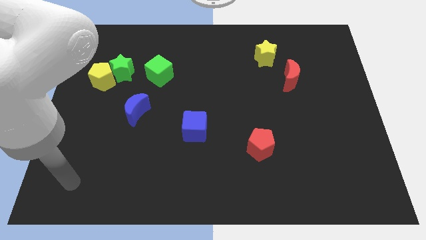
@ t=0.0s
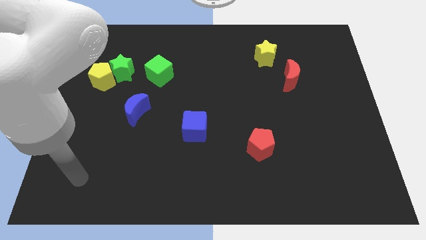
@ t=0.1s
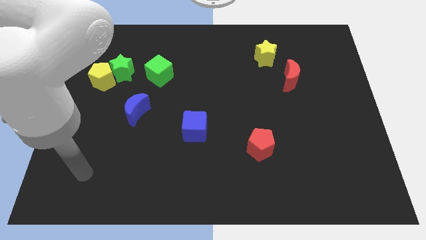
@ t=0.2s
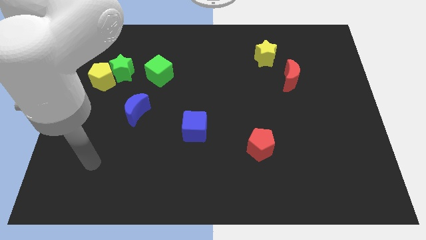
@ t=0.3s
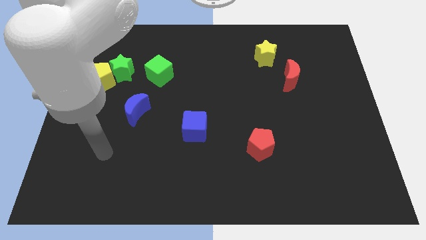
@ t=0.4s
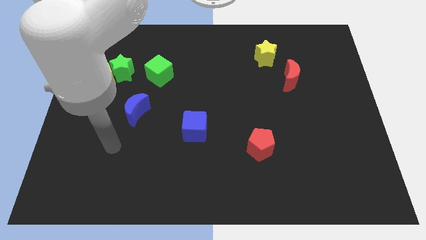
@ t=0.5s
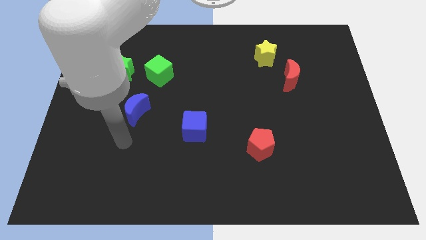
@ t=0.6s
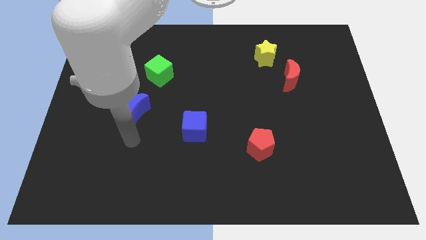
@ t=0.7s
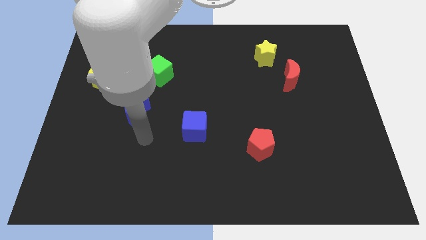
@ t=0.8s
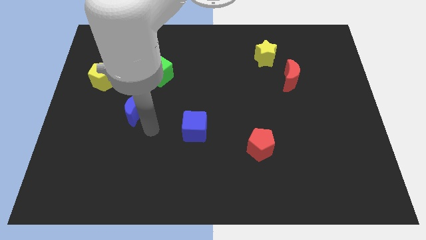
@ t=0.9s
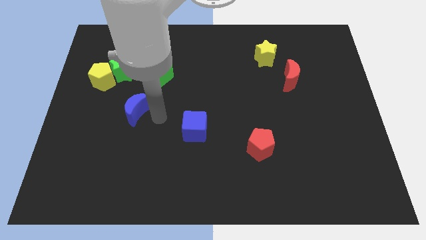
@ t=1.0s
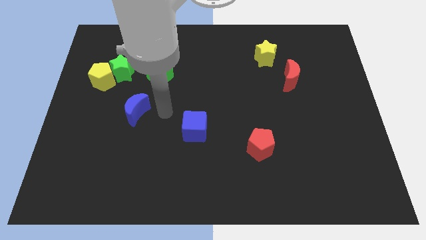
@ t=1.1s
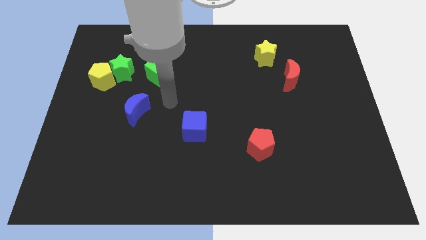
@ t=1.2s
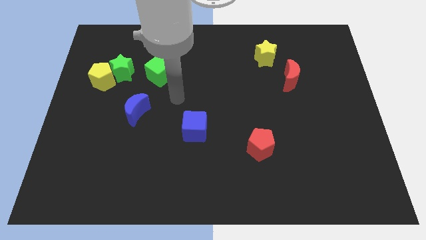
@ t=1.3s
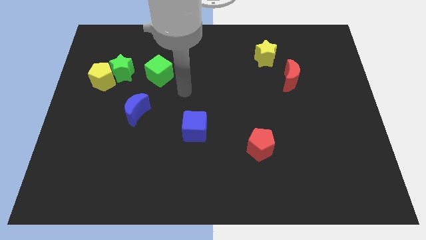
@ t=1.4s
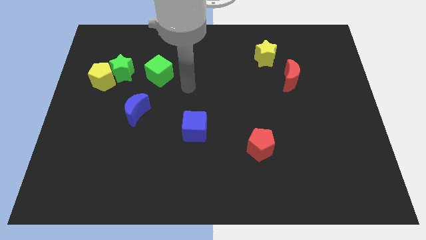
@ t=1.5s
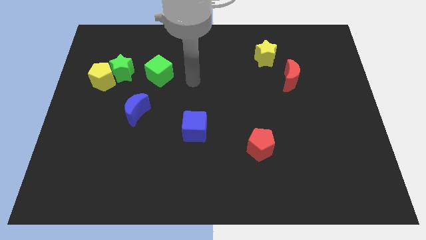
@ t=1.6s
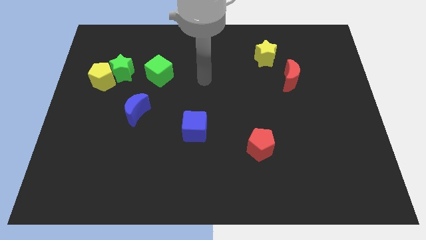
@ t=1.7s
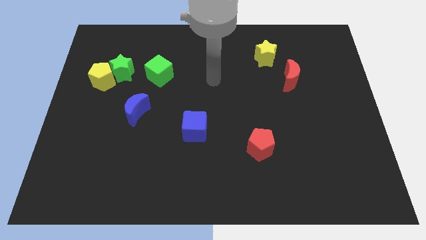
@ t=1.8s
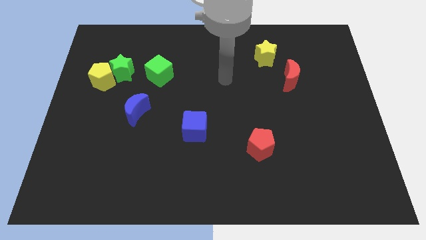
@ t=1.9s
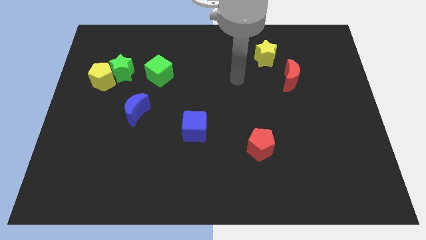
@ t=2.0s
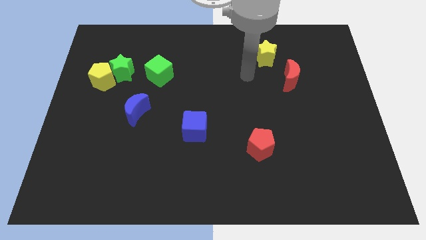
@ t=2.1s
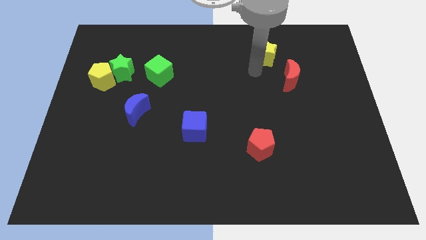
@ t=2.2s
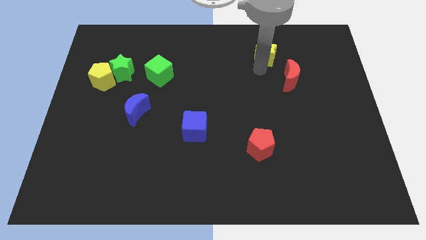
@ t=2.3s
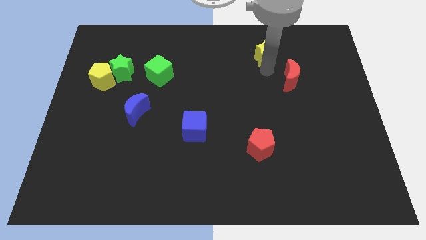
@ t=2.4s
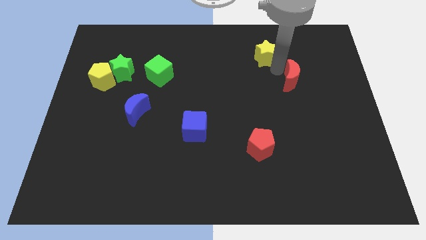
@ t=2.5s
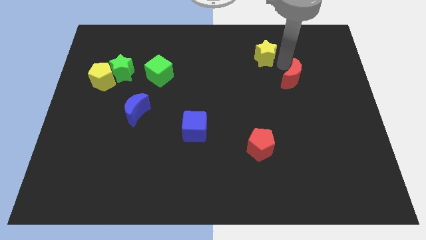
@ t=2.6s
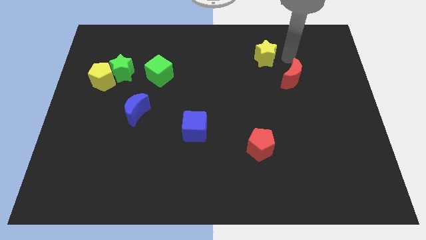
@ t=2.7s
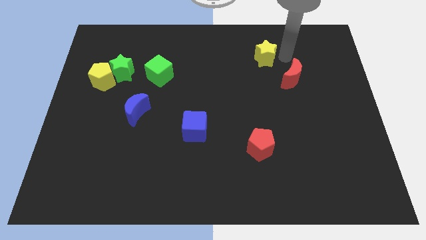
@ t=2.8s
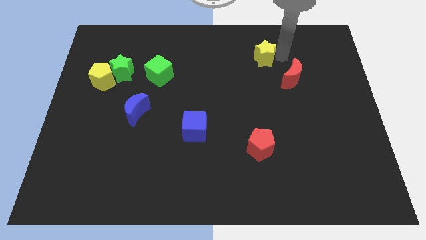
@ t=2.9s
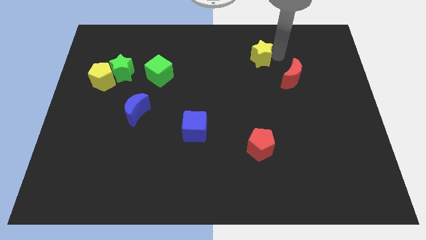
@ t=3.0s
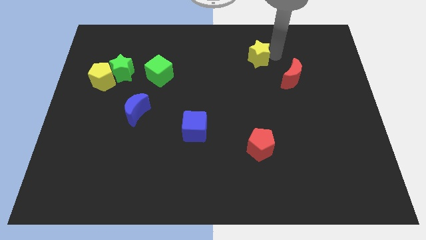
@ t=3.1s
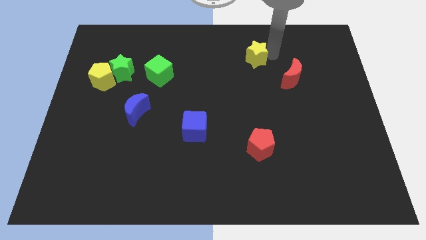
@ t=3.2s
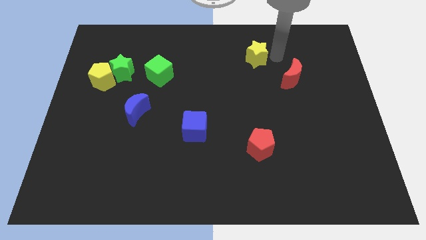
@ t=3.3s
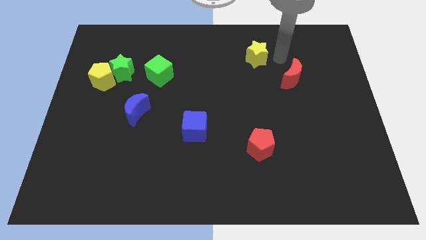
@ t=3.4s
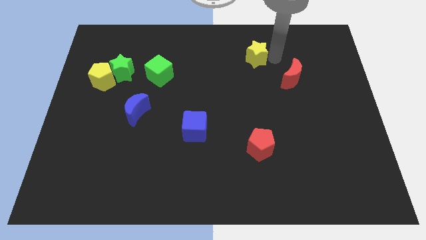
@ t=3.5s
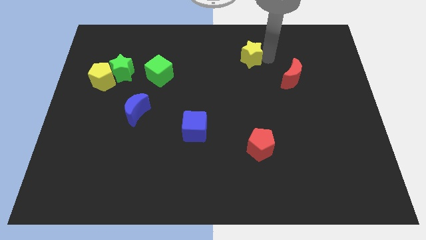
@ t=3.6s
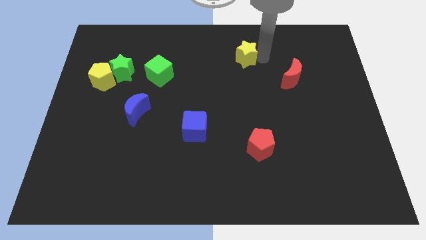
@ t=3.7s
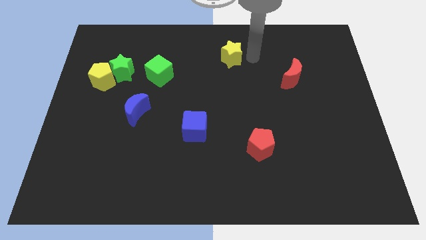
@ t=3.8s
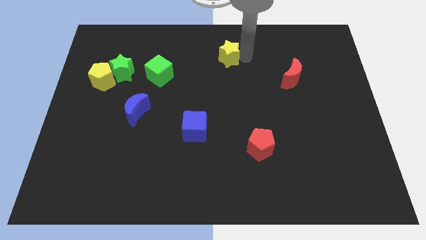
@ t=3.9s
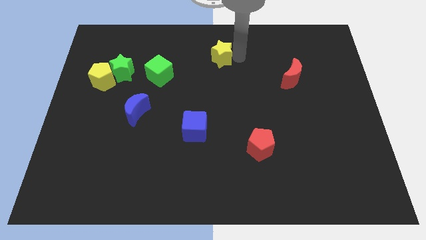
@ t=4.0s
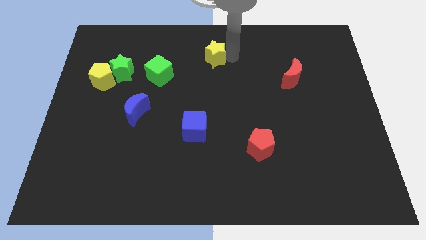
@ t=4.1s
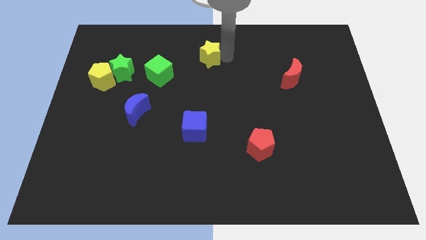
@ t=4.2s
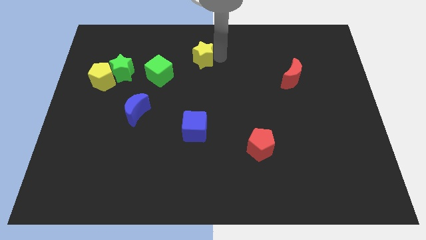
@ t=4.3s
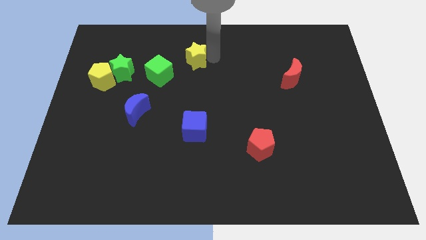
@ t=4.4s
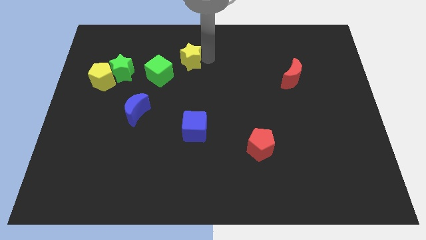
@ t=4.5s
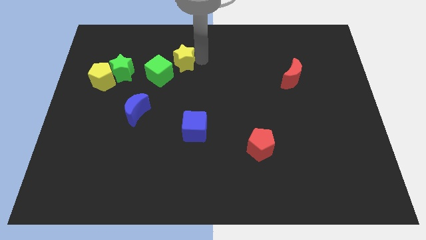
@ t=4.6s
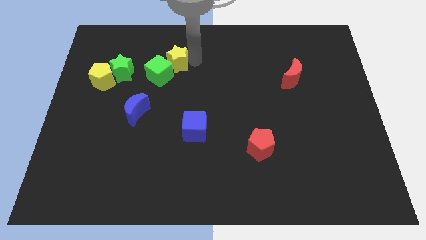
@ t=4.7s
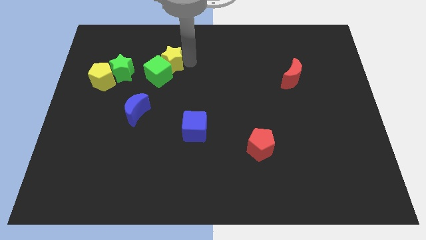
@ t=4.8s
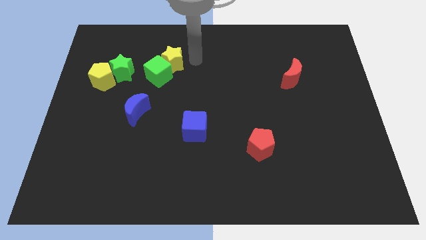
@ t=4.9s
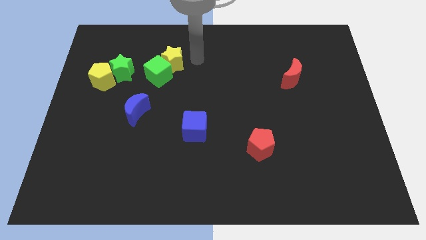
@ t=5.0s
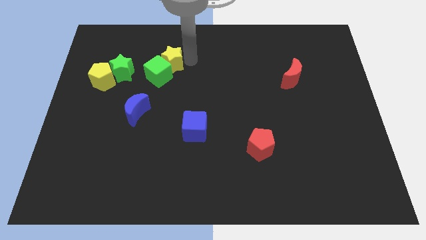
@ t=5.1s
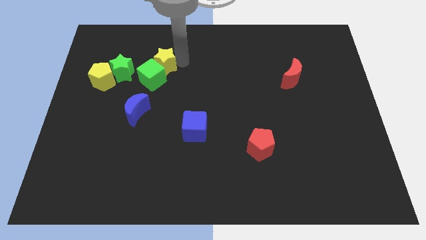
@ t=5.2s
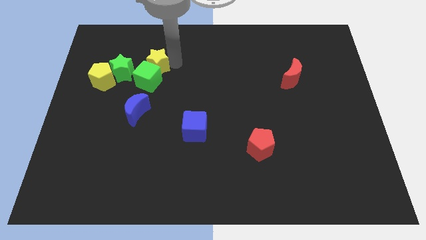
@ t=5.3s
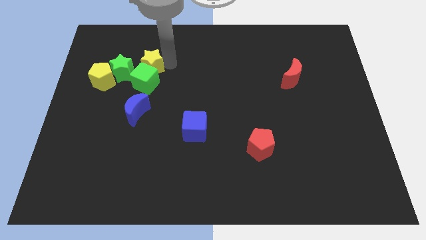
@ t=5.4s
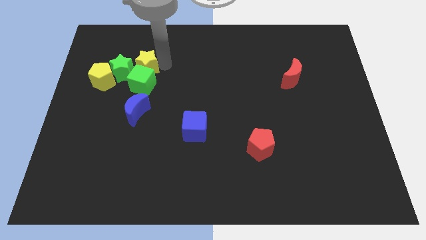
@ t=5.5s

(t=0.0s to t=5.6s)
push the yellow star close to the green star

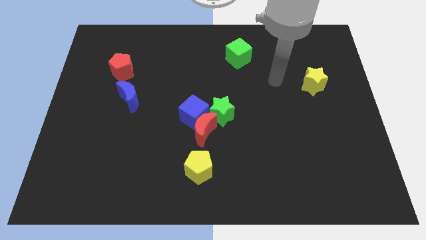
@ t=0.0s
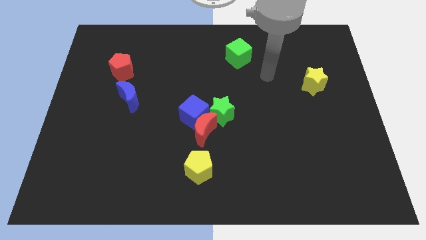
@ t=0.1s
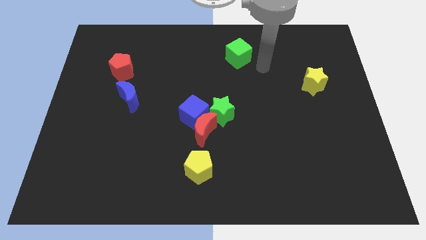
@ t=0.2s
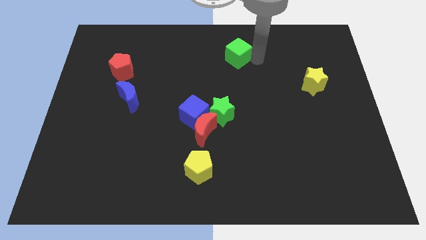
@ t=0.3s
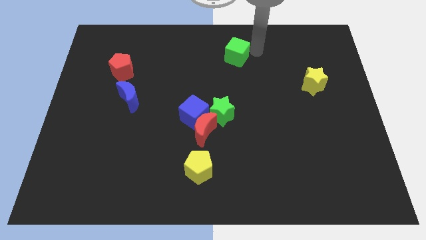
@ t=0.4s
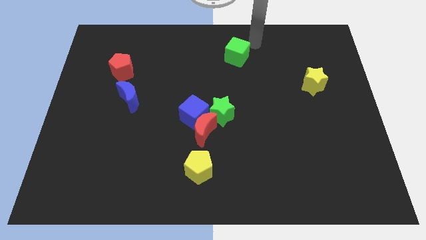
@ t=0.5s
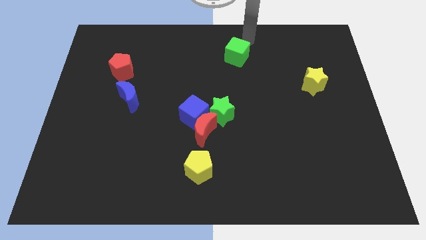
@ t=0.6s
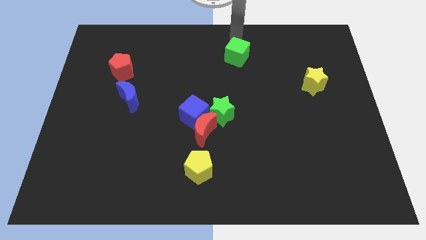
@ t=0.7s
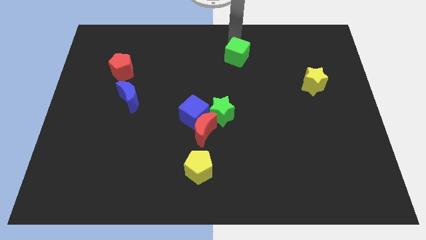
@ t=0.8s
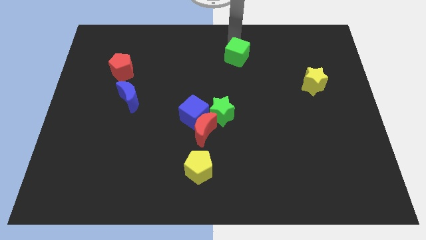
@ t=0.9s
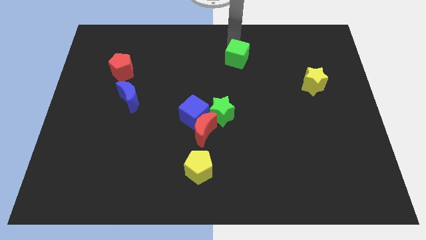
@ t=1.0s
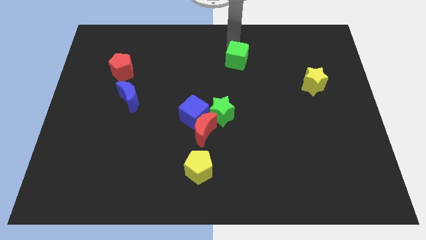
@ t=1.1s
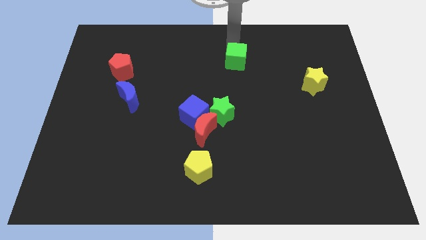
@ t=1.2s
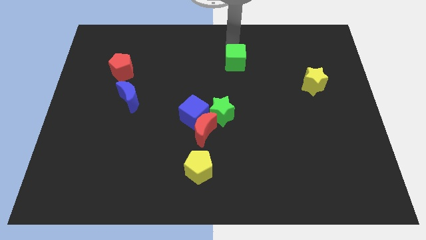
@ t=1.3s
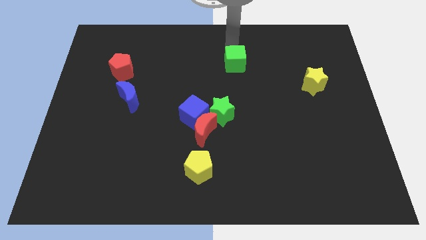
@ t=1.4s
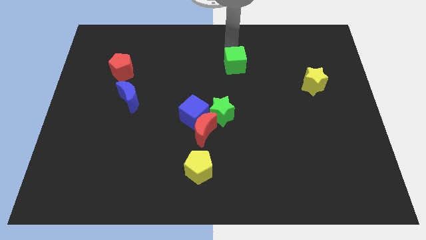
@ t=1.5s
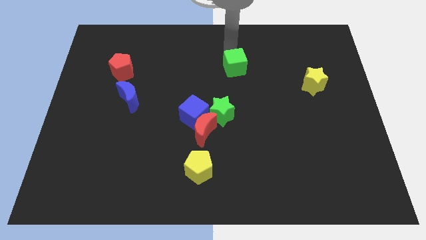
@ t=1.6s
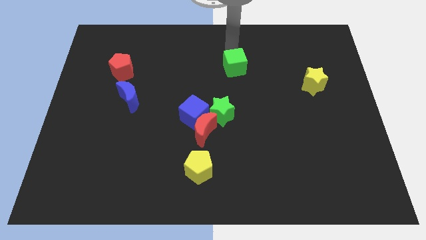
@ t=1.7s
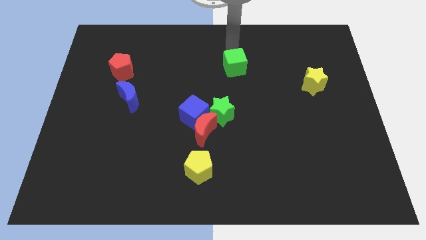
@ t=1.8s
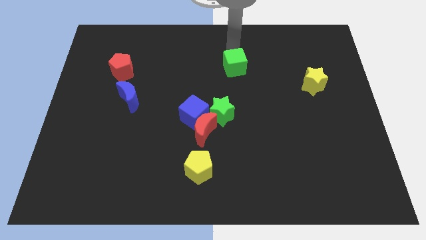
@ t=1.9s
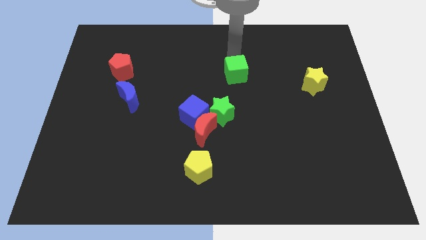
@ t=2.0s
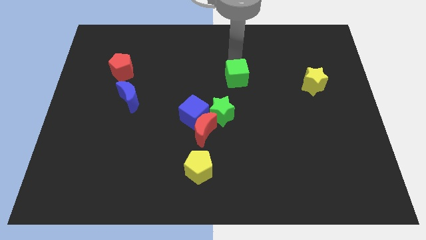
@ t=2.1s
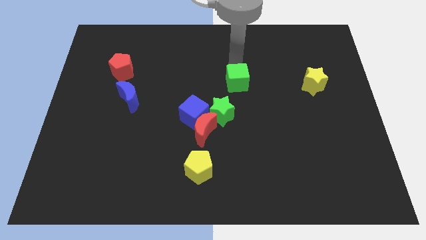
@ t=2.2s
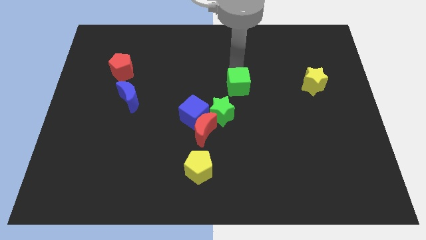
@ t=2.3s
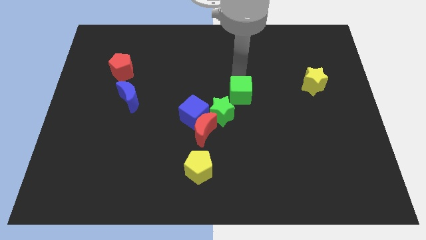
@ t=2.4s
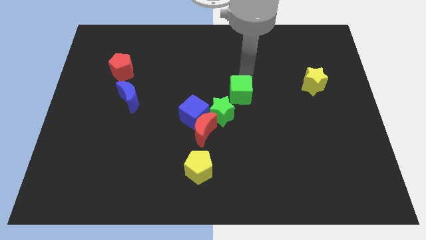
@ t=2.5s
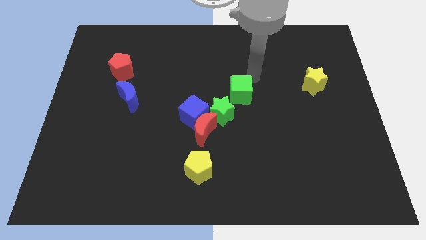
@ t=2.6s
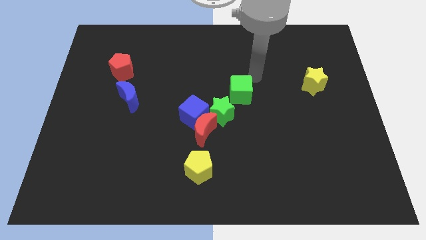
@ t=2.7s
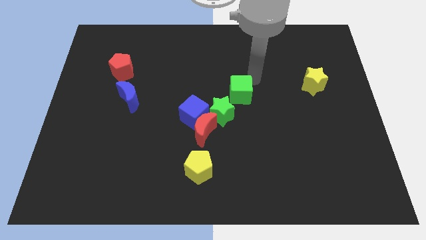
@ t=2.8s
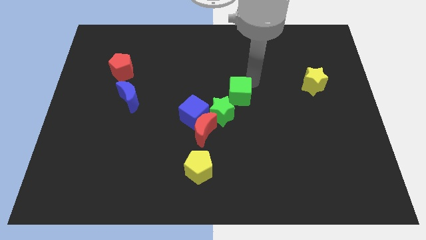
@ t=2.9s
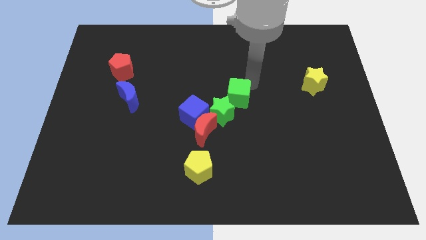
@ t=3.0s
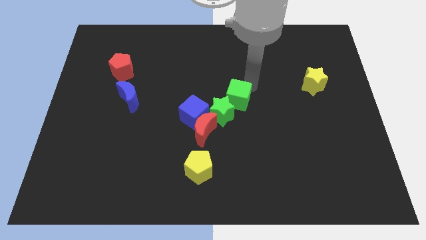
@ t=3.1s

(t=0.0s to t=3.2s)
slide the green cube next to the green star
